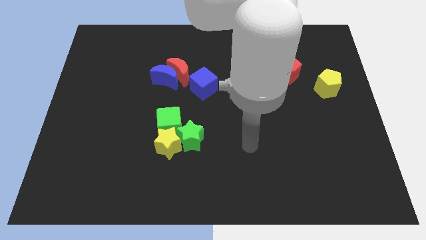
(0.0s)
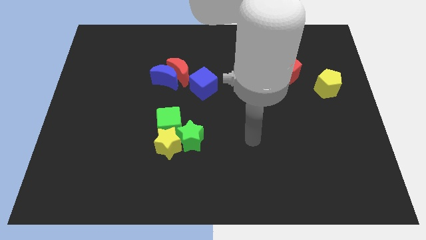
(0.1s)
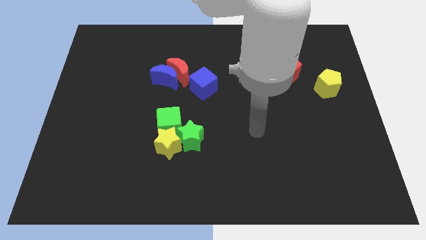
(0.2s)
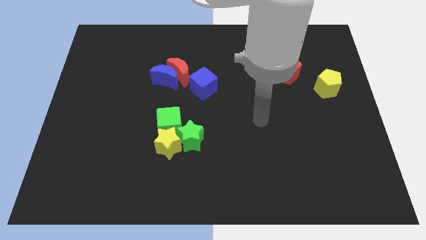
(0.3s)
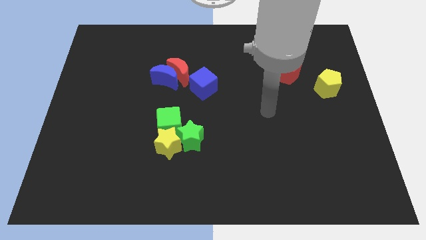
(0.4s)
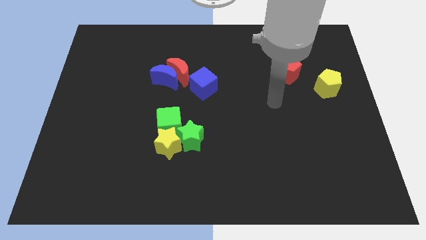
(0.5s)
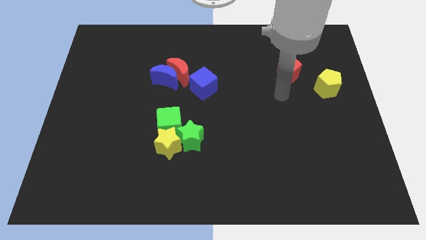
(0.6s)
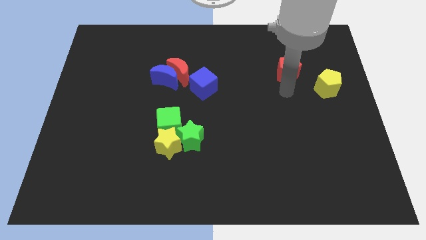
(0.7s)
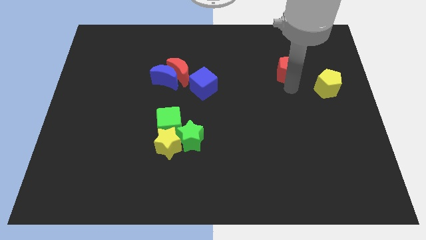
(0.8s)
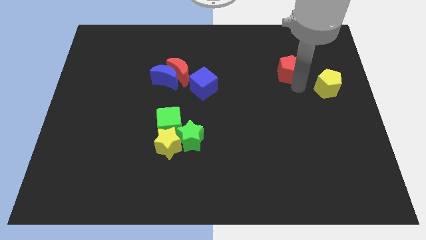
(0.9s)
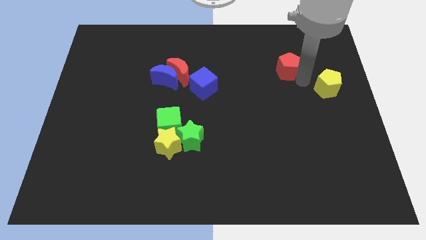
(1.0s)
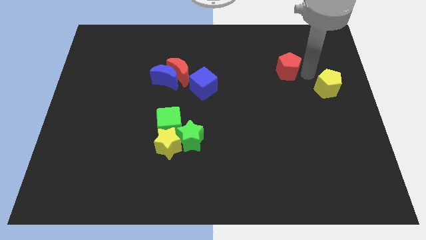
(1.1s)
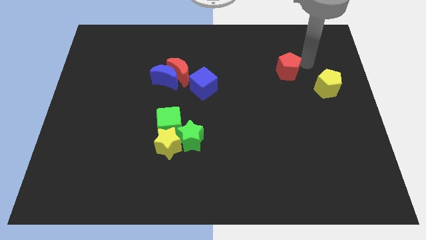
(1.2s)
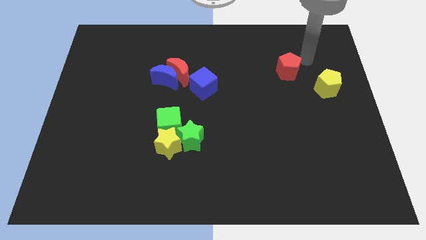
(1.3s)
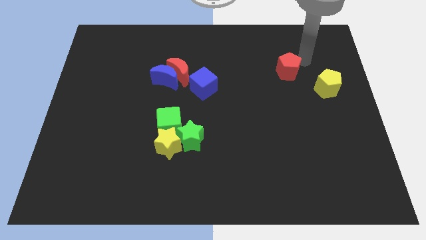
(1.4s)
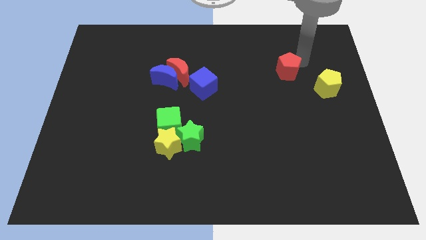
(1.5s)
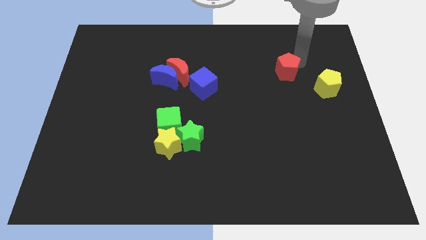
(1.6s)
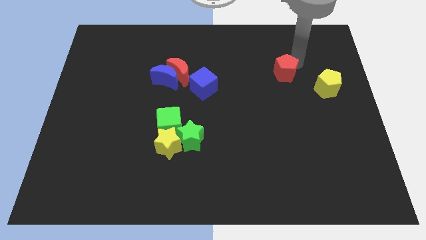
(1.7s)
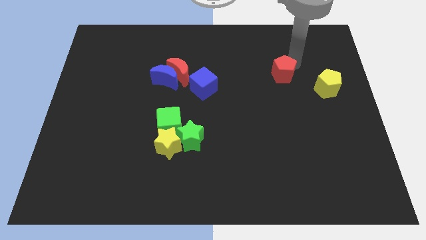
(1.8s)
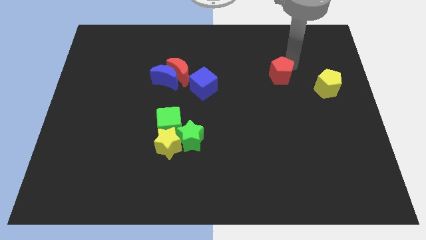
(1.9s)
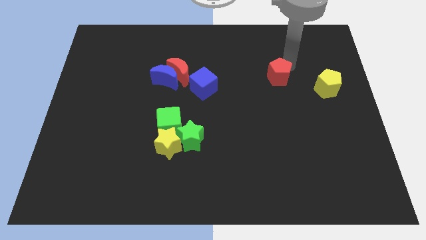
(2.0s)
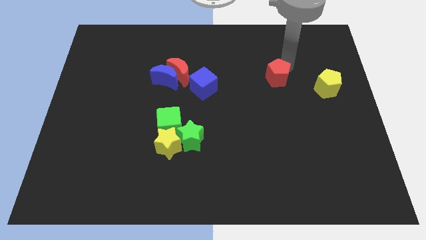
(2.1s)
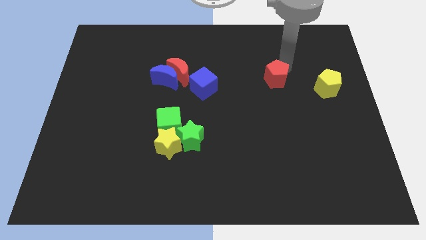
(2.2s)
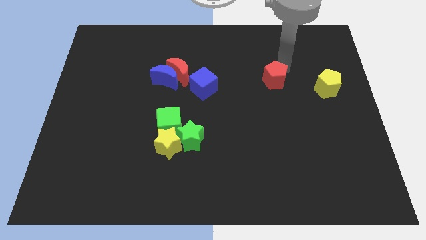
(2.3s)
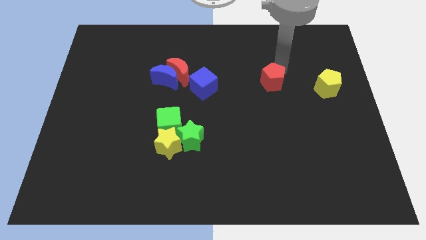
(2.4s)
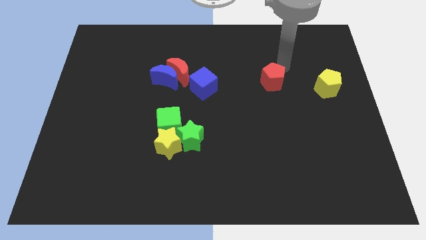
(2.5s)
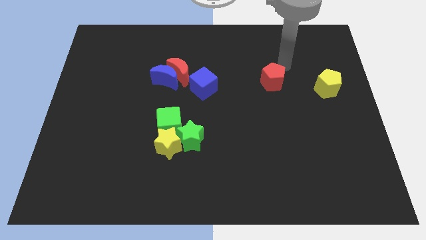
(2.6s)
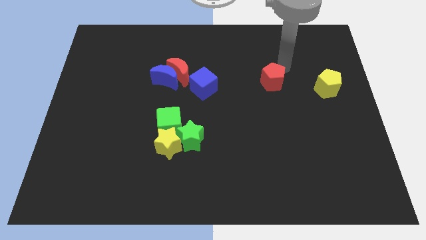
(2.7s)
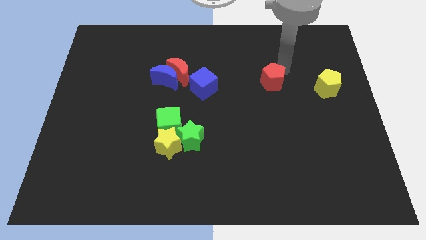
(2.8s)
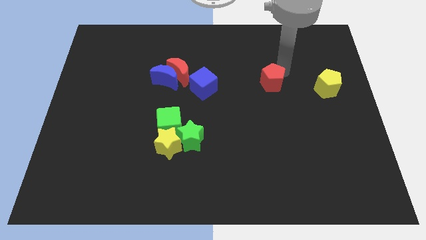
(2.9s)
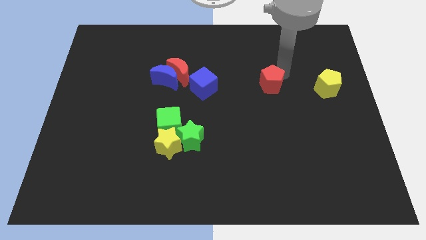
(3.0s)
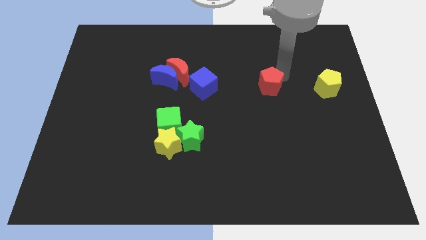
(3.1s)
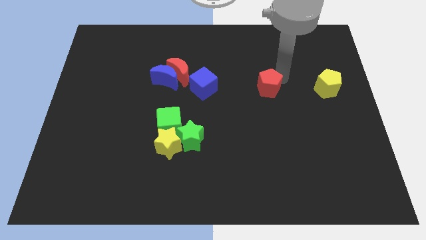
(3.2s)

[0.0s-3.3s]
slightly push the red pentagon down and to the left diagonally

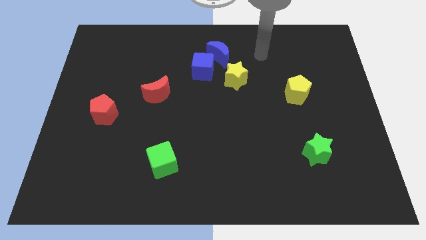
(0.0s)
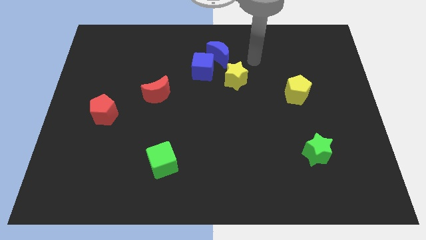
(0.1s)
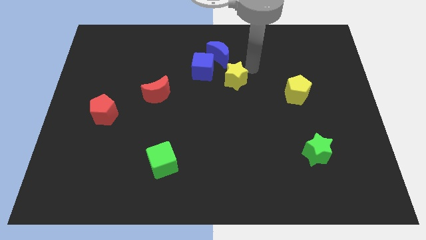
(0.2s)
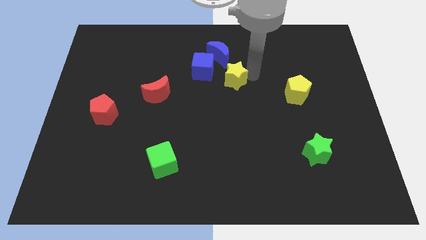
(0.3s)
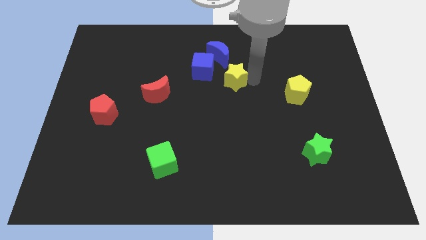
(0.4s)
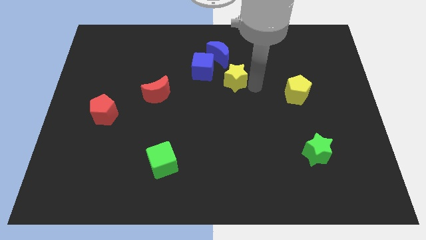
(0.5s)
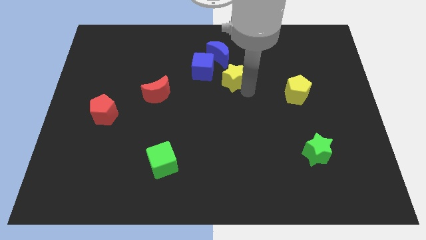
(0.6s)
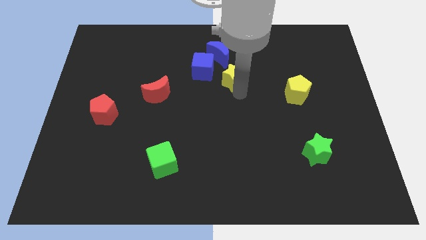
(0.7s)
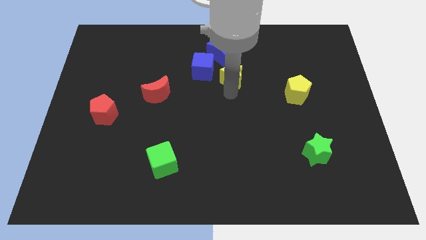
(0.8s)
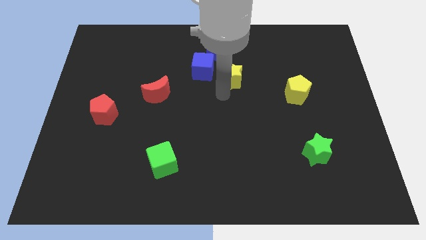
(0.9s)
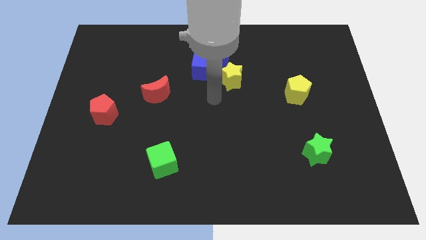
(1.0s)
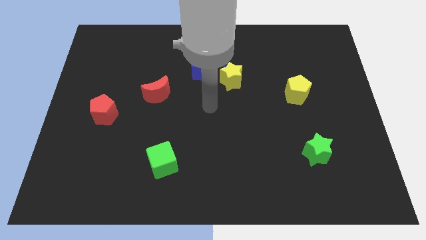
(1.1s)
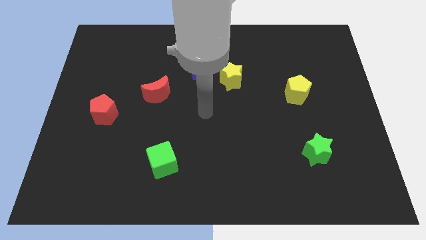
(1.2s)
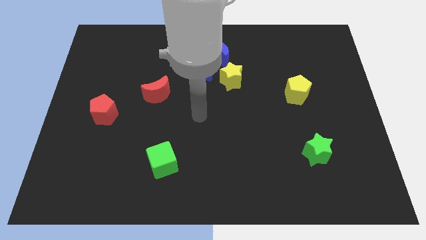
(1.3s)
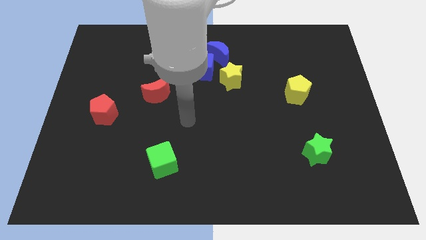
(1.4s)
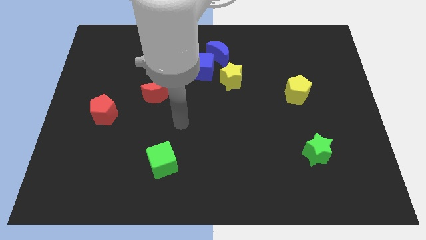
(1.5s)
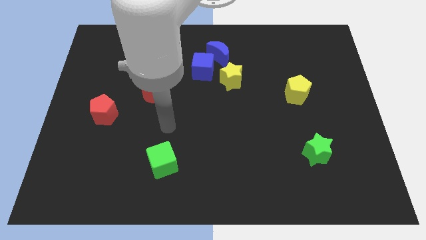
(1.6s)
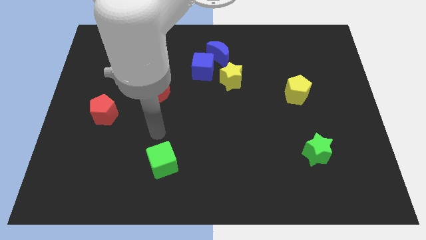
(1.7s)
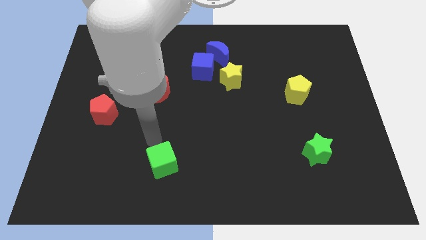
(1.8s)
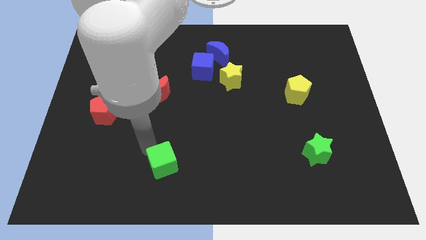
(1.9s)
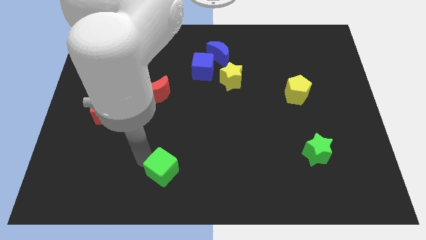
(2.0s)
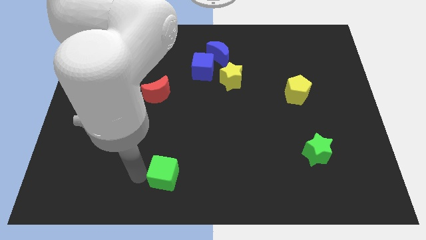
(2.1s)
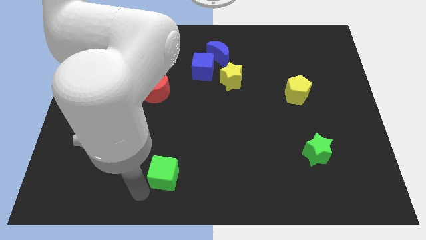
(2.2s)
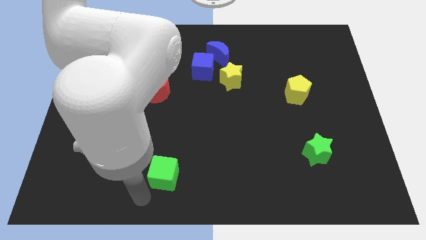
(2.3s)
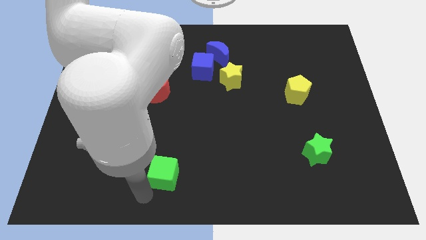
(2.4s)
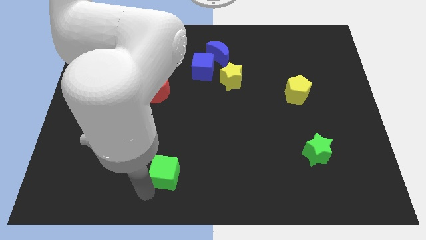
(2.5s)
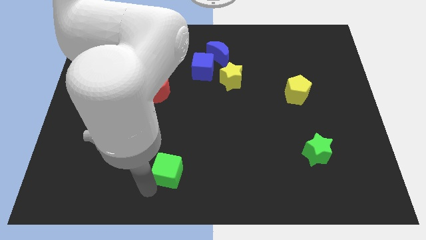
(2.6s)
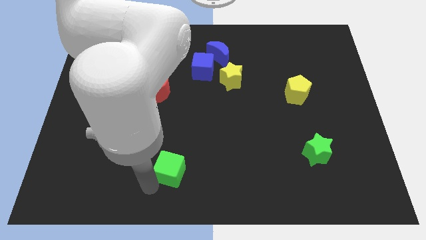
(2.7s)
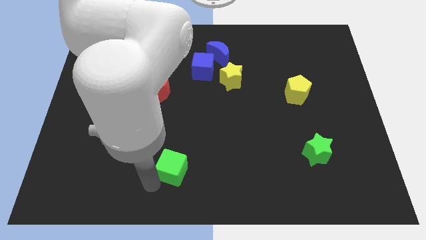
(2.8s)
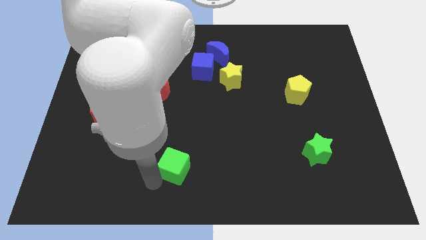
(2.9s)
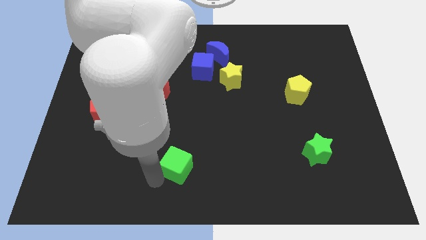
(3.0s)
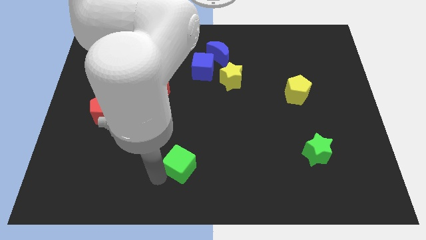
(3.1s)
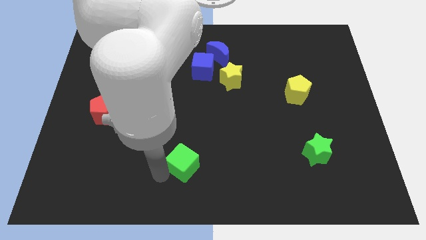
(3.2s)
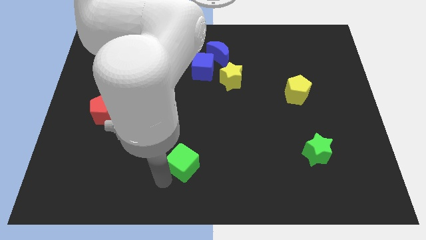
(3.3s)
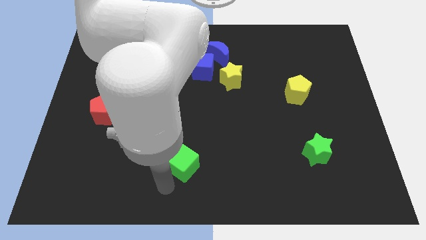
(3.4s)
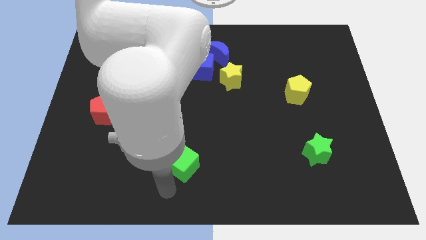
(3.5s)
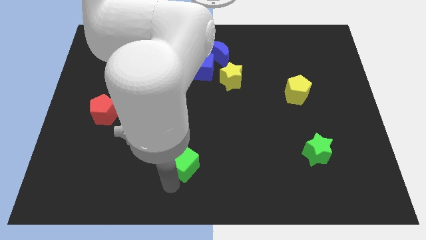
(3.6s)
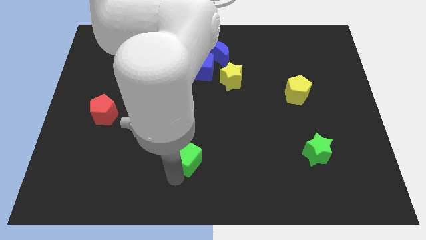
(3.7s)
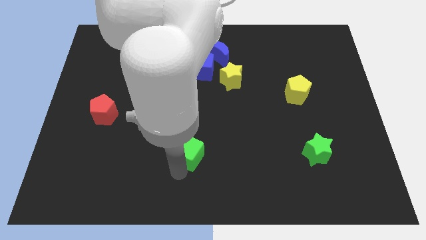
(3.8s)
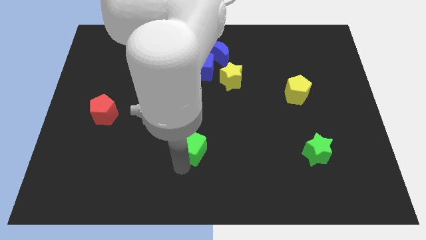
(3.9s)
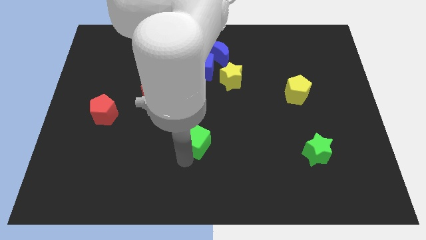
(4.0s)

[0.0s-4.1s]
slightly move the green cube up and right

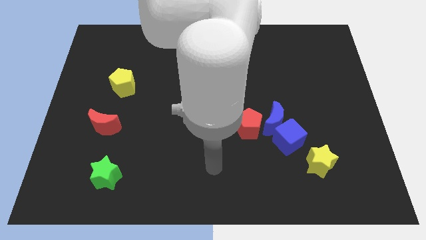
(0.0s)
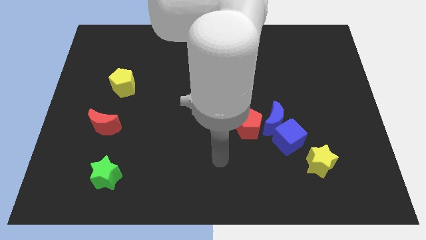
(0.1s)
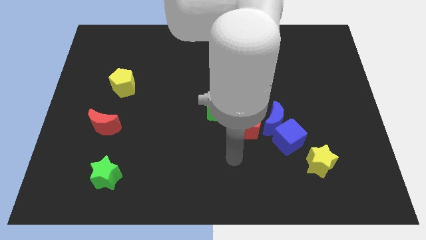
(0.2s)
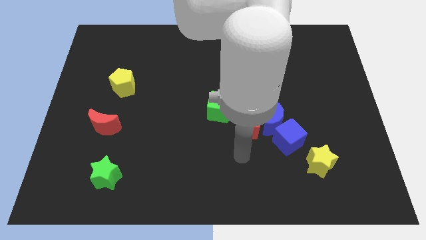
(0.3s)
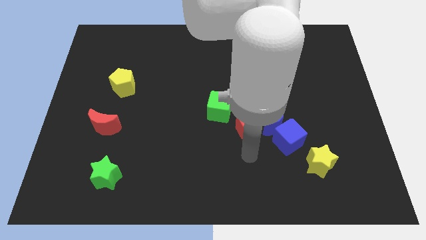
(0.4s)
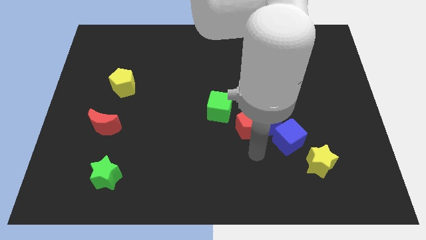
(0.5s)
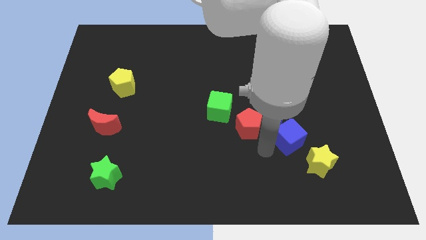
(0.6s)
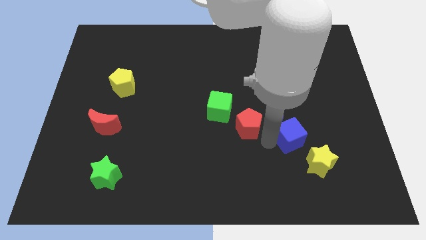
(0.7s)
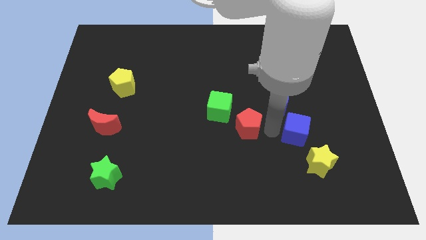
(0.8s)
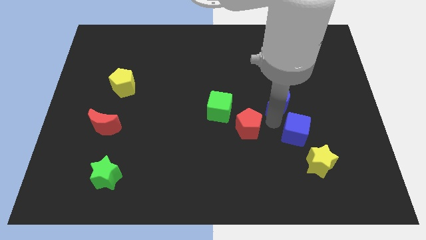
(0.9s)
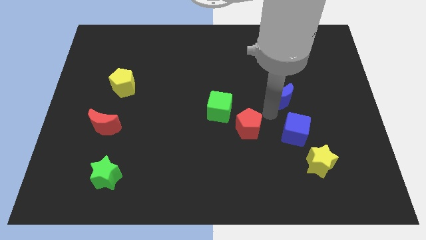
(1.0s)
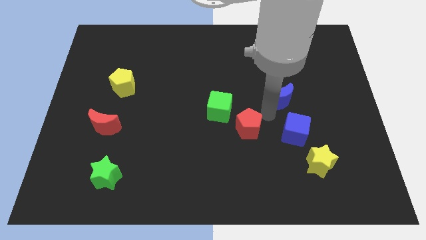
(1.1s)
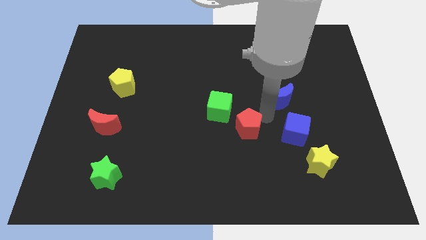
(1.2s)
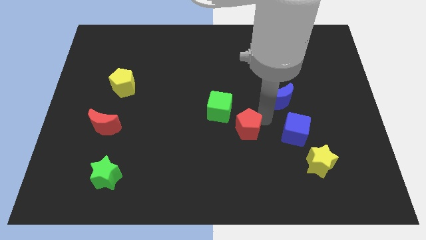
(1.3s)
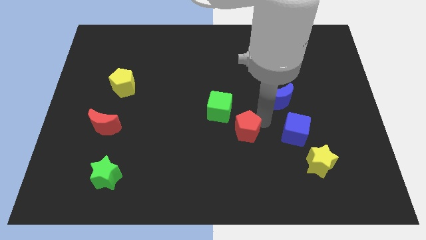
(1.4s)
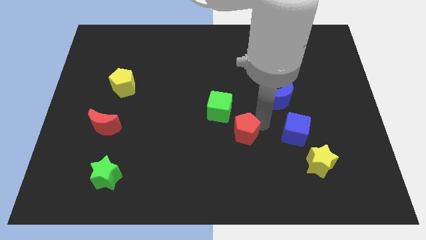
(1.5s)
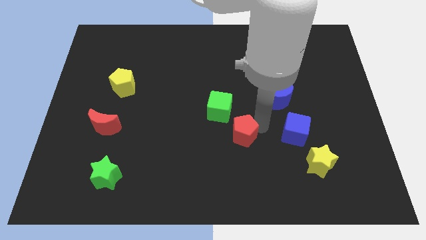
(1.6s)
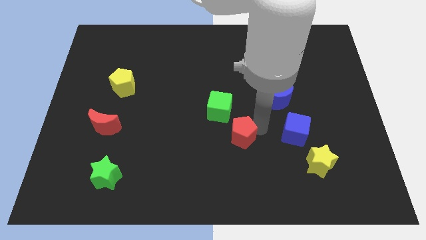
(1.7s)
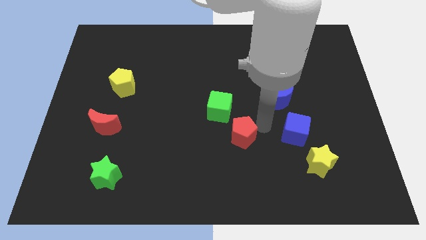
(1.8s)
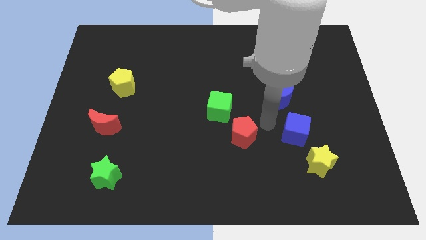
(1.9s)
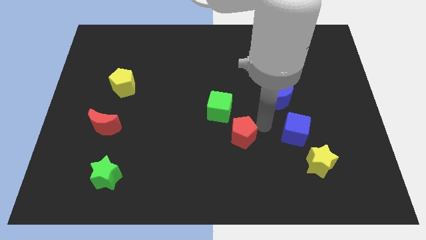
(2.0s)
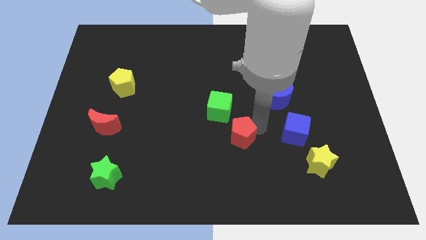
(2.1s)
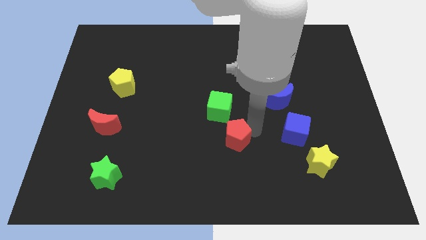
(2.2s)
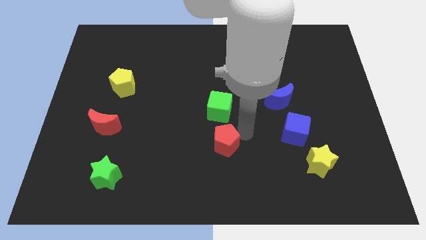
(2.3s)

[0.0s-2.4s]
move the red pentagon a little down and then to the left
